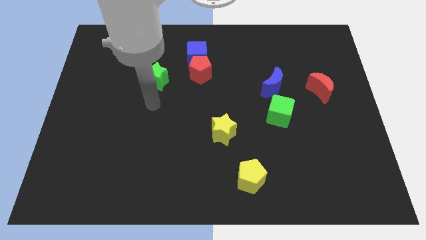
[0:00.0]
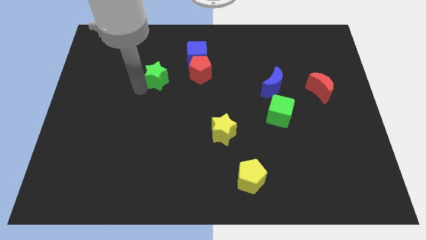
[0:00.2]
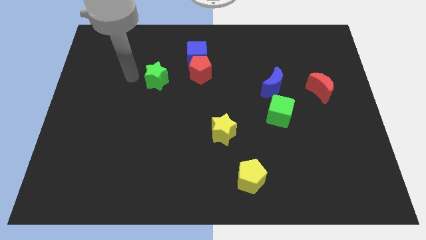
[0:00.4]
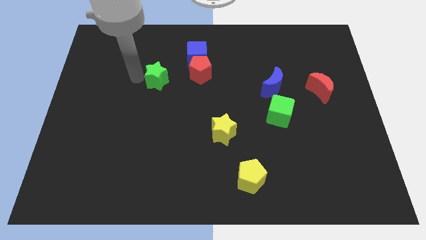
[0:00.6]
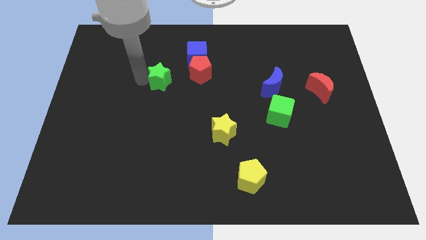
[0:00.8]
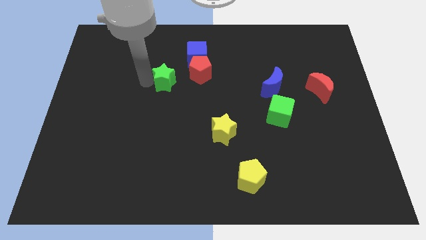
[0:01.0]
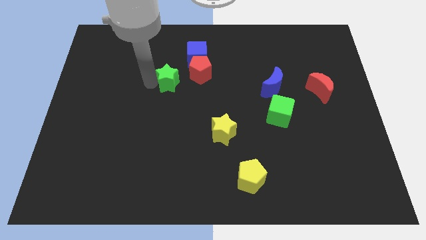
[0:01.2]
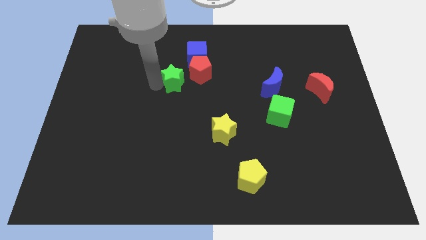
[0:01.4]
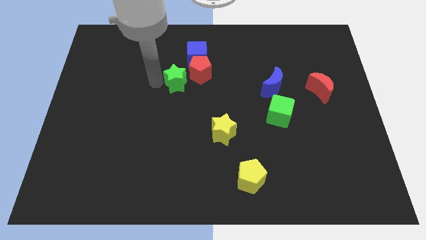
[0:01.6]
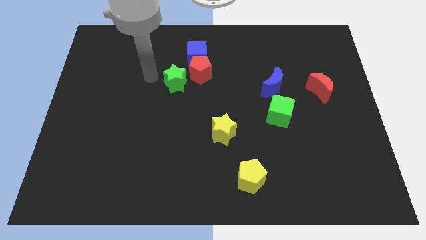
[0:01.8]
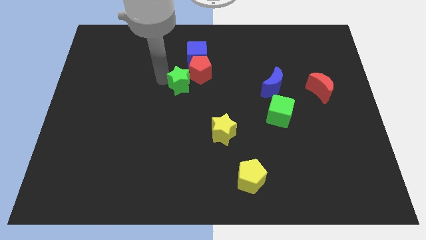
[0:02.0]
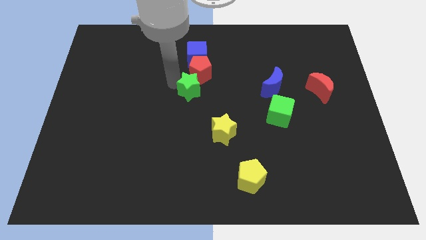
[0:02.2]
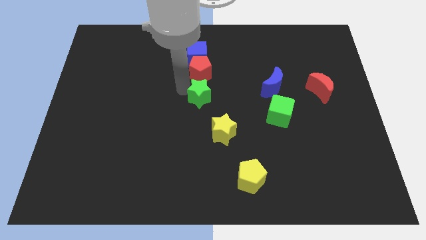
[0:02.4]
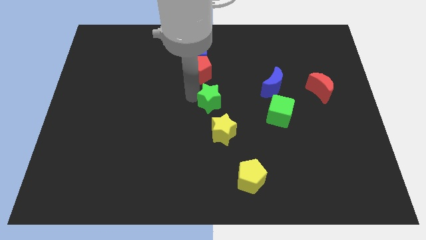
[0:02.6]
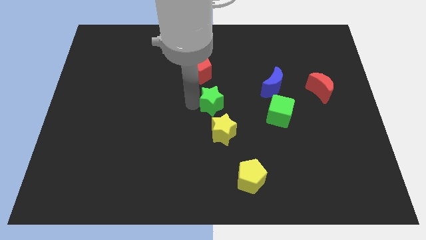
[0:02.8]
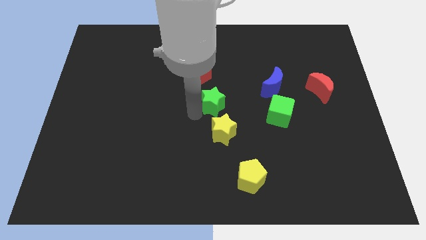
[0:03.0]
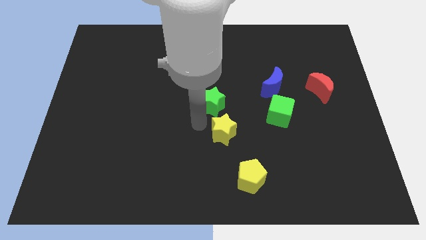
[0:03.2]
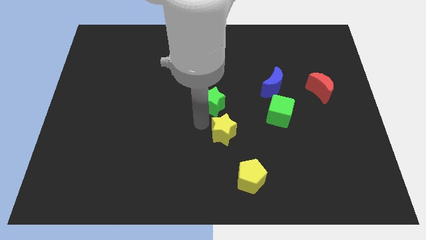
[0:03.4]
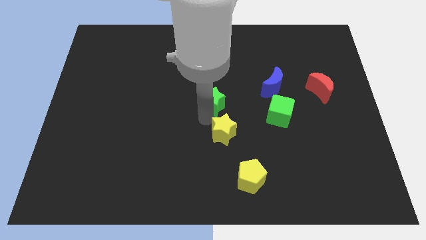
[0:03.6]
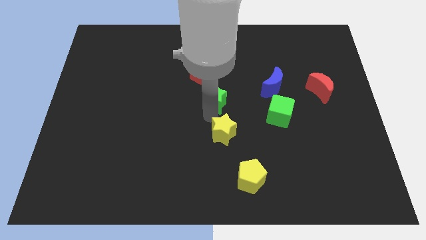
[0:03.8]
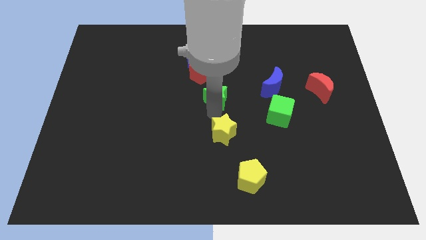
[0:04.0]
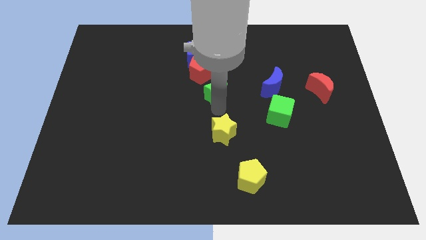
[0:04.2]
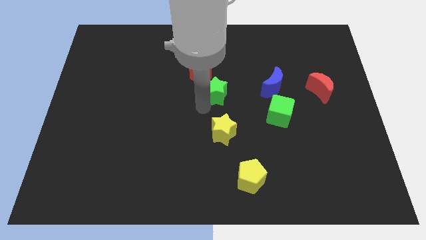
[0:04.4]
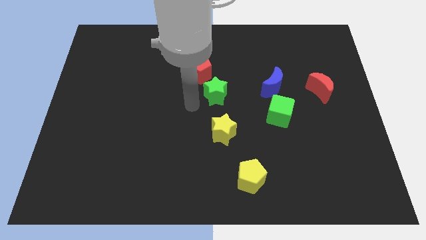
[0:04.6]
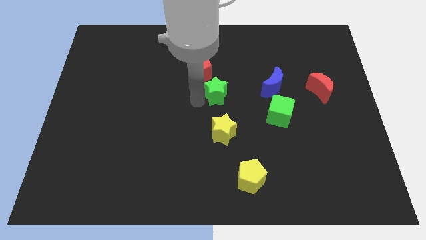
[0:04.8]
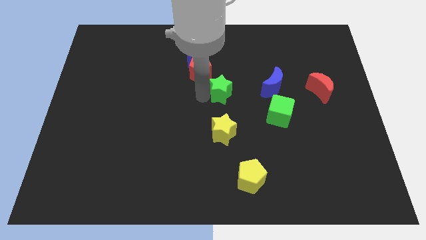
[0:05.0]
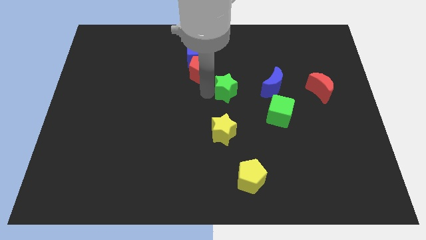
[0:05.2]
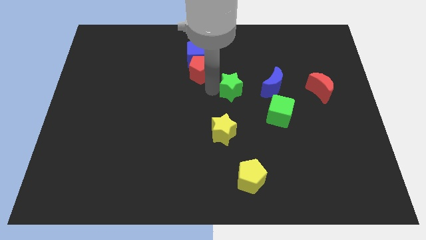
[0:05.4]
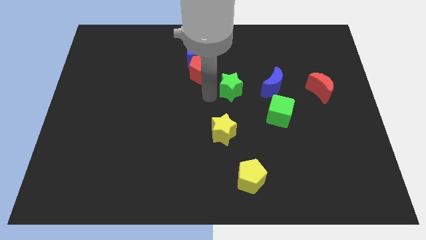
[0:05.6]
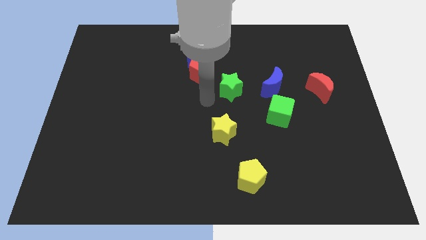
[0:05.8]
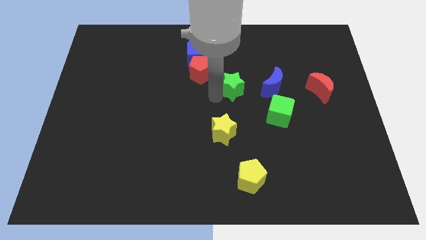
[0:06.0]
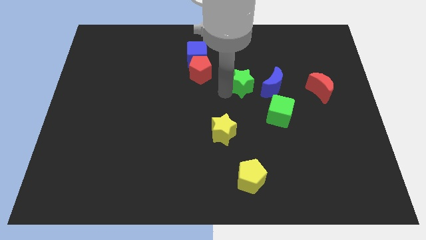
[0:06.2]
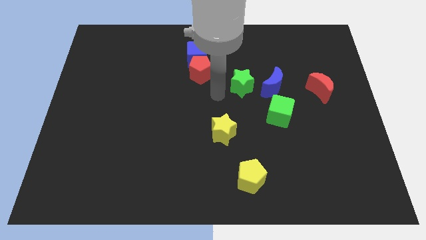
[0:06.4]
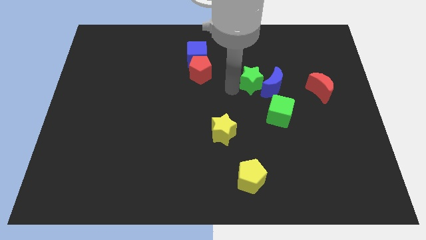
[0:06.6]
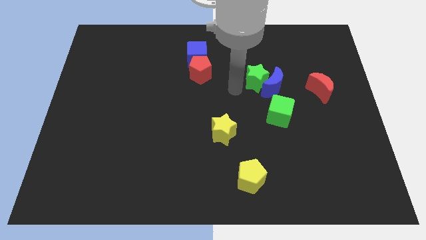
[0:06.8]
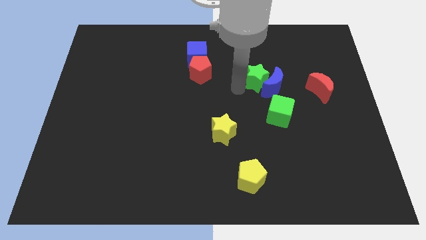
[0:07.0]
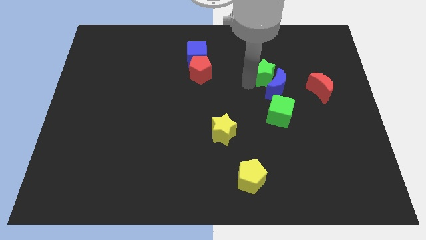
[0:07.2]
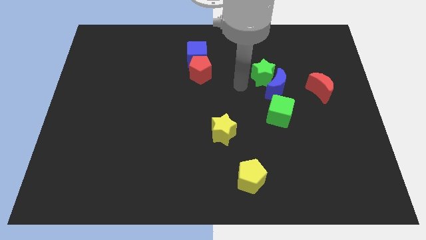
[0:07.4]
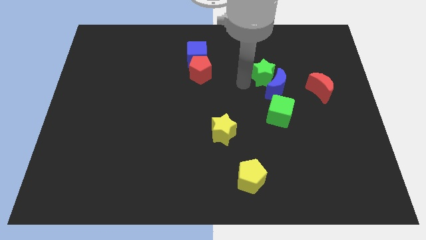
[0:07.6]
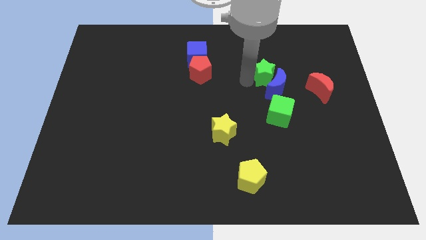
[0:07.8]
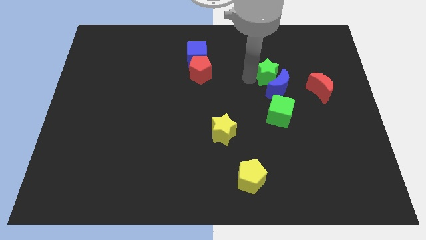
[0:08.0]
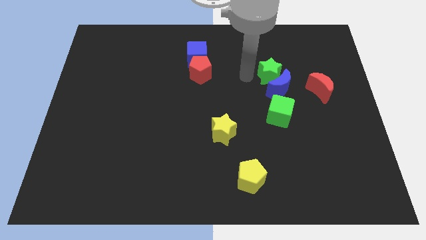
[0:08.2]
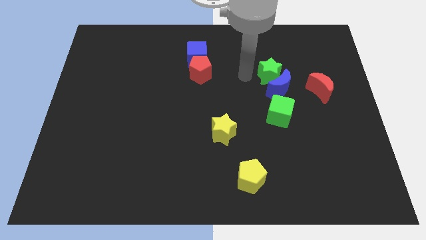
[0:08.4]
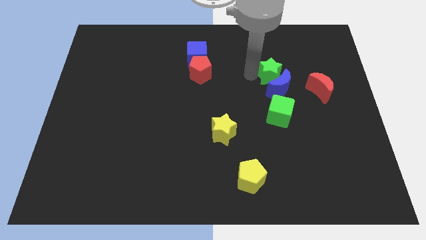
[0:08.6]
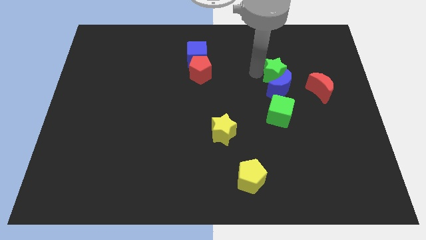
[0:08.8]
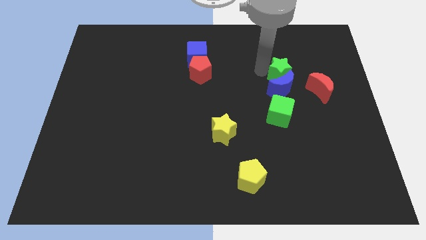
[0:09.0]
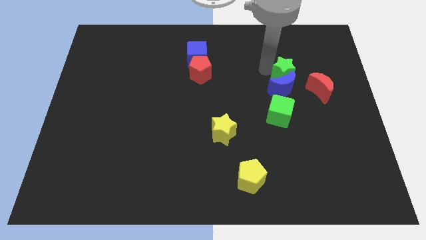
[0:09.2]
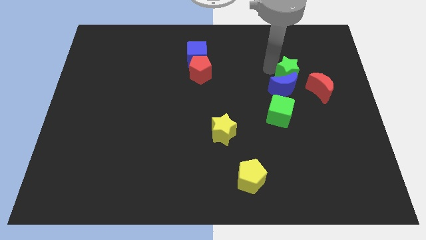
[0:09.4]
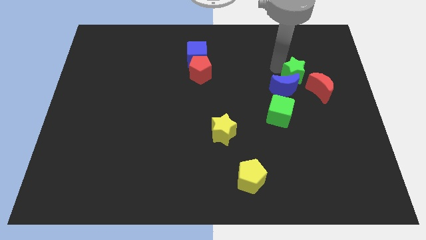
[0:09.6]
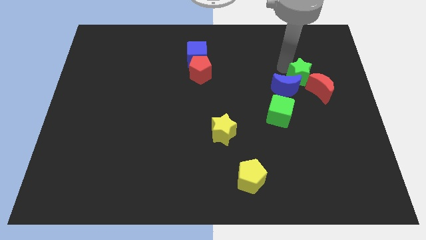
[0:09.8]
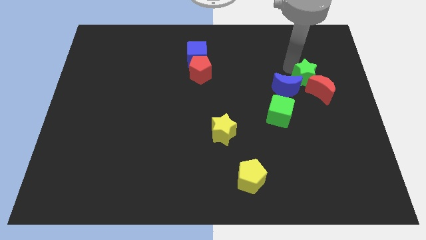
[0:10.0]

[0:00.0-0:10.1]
slide the green star to the red moon

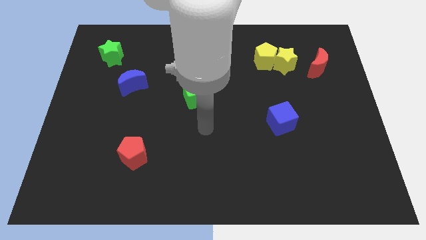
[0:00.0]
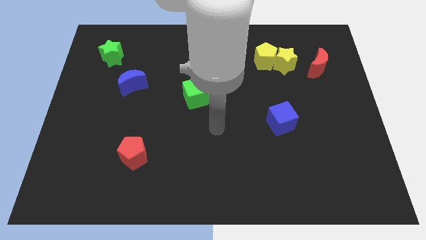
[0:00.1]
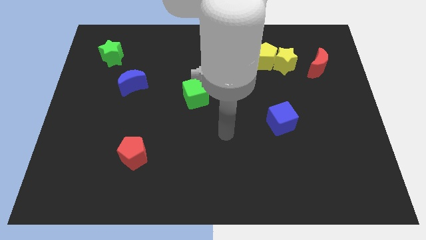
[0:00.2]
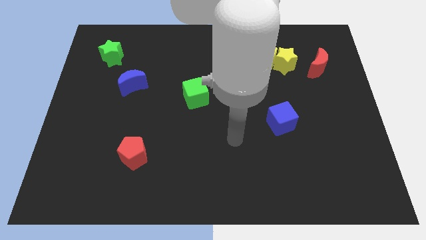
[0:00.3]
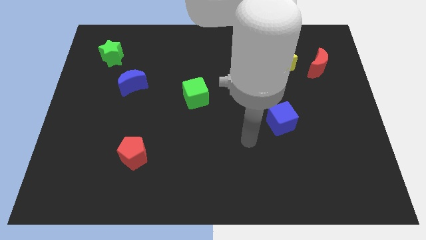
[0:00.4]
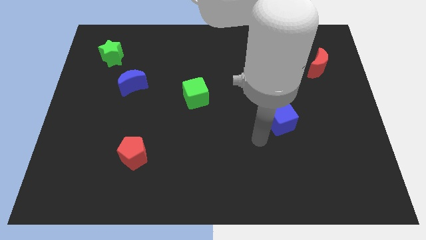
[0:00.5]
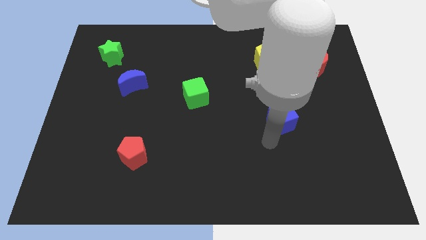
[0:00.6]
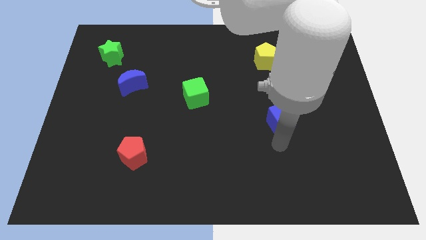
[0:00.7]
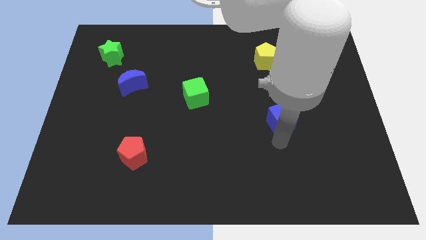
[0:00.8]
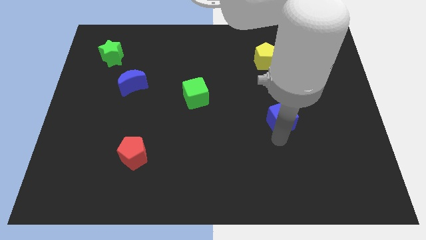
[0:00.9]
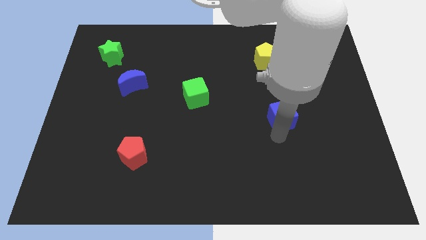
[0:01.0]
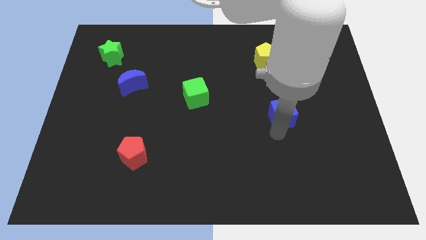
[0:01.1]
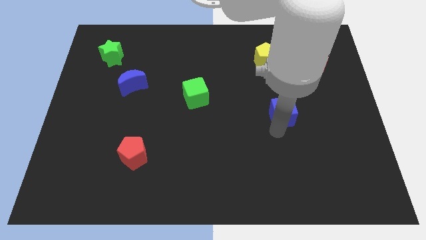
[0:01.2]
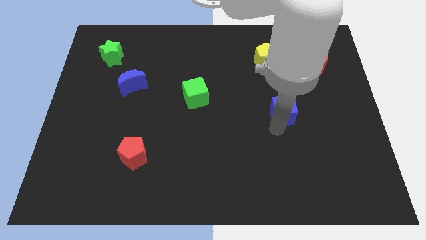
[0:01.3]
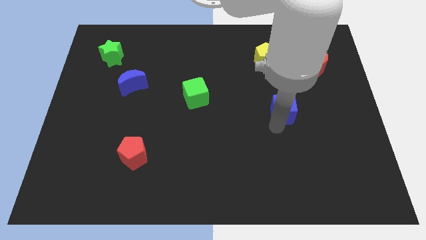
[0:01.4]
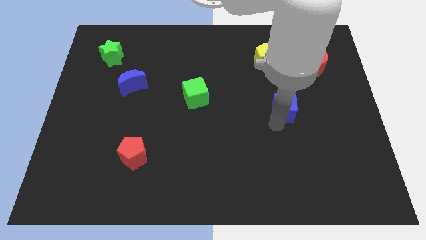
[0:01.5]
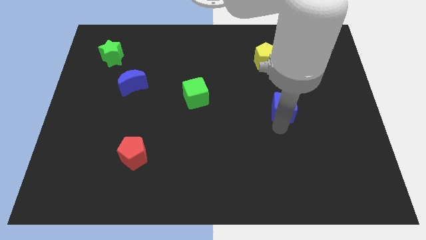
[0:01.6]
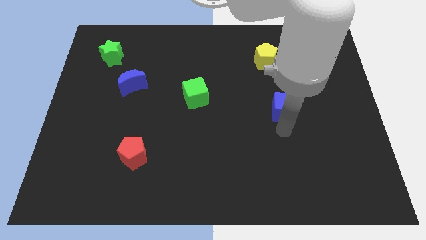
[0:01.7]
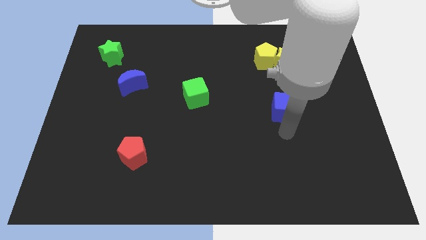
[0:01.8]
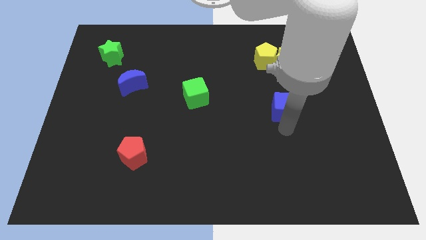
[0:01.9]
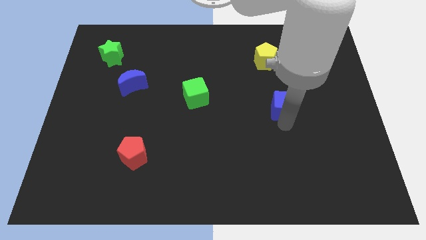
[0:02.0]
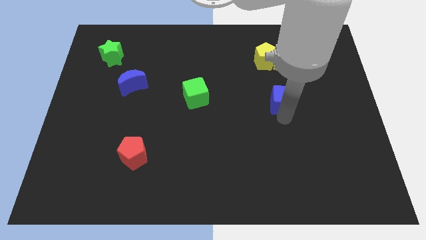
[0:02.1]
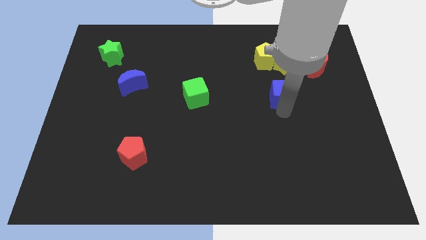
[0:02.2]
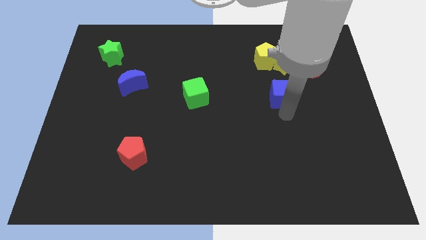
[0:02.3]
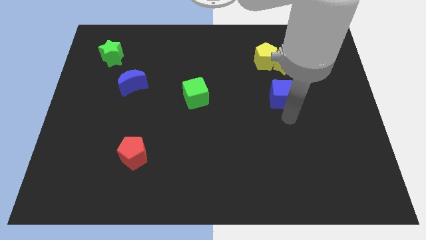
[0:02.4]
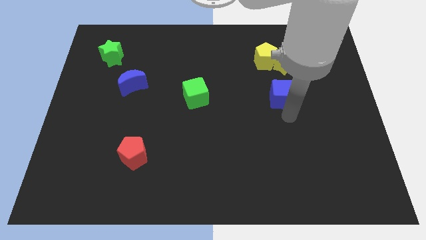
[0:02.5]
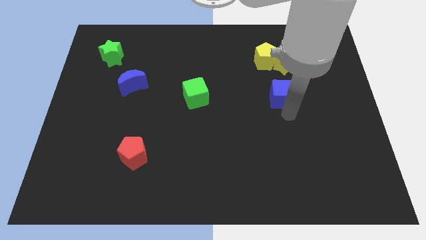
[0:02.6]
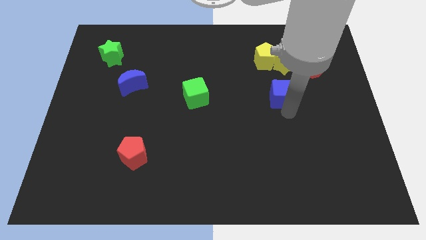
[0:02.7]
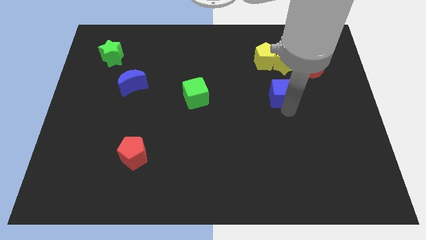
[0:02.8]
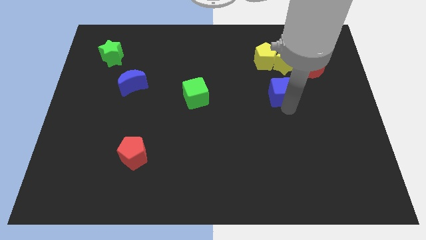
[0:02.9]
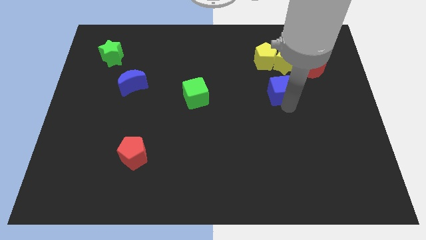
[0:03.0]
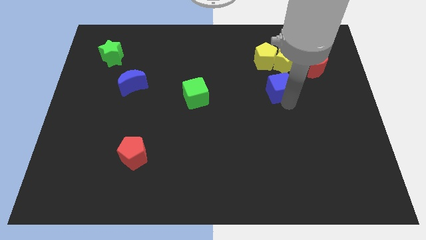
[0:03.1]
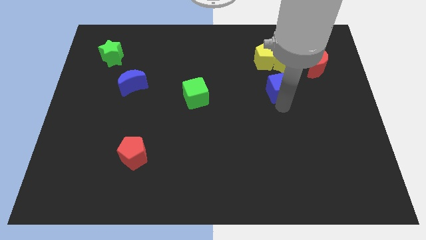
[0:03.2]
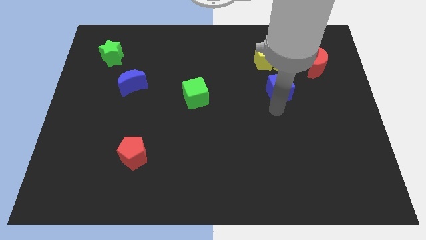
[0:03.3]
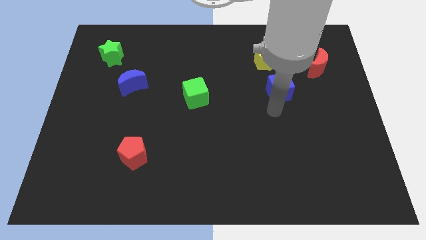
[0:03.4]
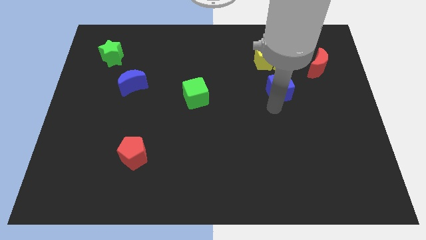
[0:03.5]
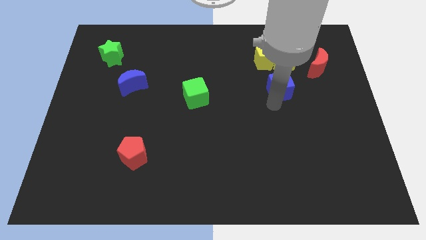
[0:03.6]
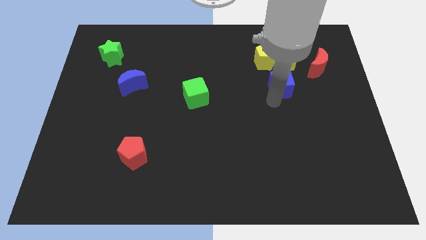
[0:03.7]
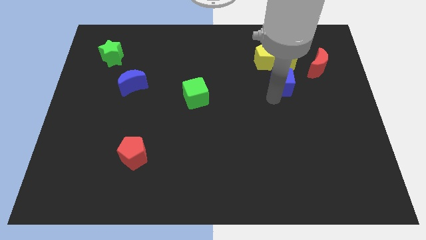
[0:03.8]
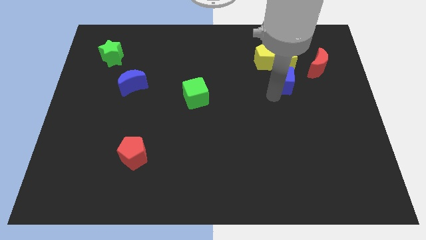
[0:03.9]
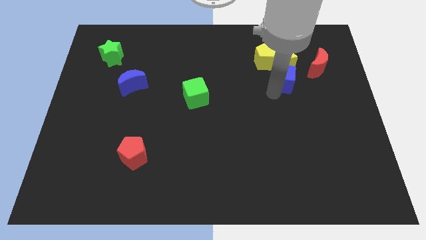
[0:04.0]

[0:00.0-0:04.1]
slide the blue cube close to the yellow star
